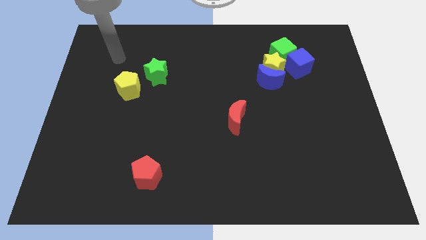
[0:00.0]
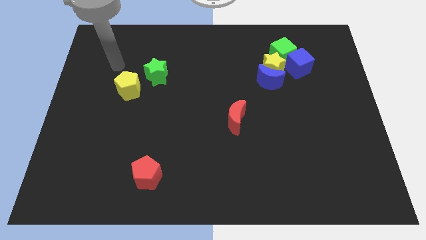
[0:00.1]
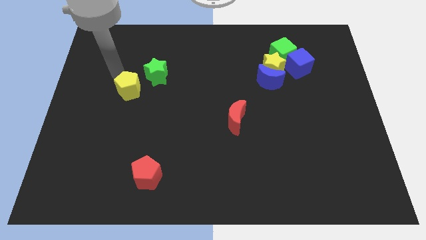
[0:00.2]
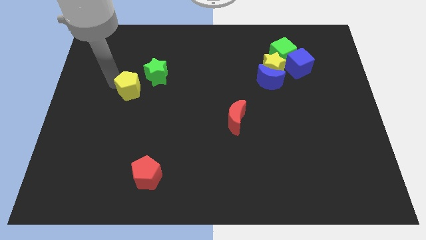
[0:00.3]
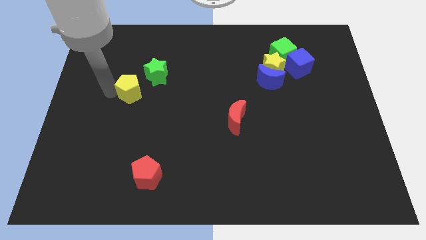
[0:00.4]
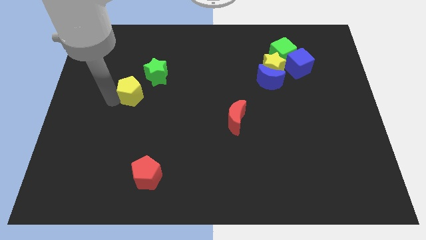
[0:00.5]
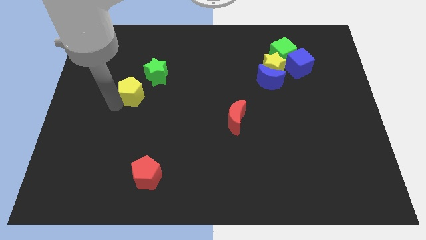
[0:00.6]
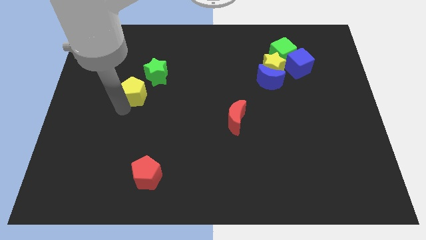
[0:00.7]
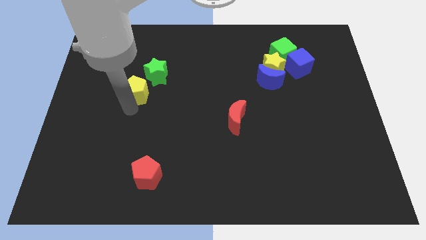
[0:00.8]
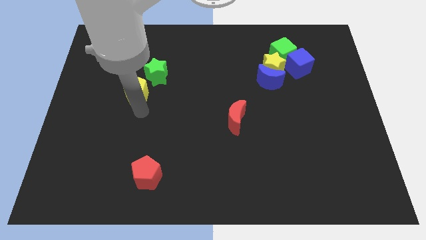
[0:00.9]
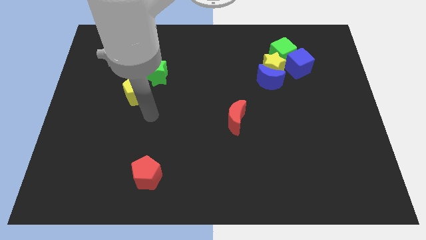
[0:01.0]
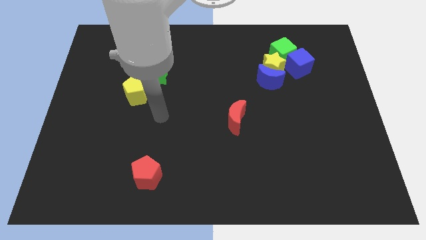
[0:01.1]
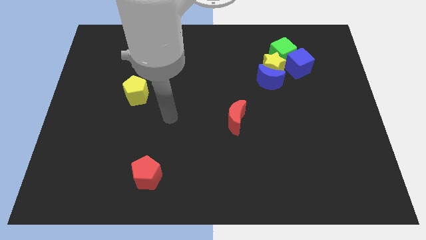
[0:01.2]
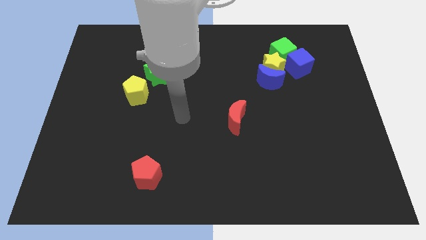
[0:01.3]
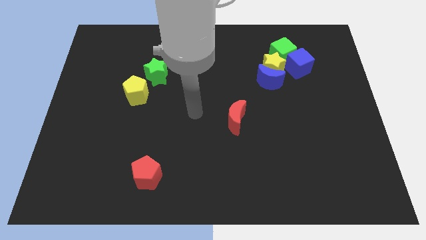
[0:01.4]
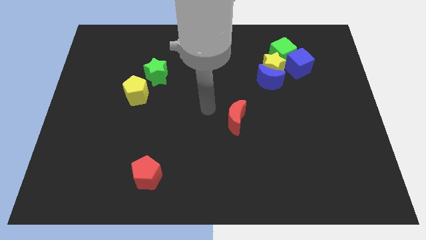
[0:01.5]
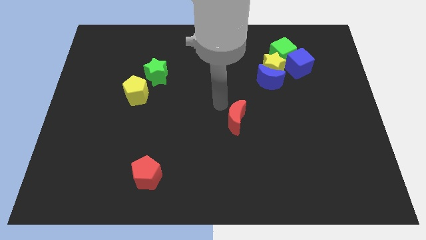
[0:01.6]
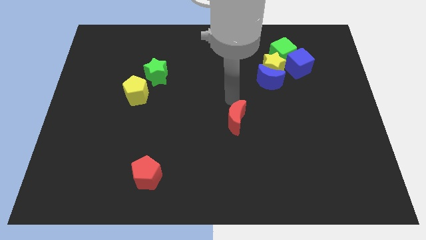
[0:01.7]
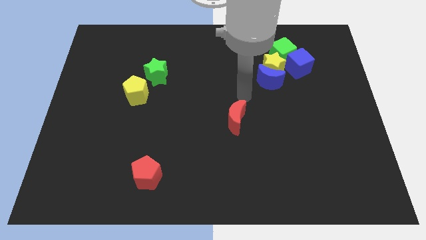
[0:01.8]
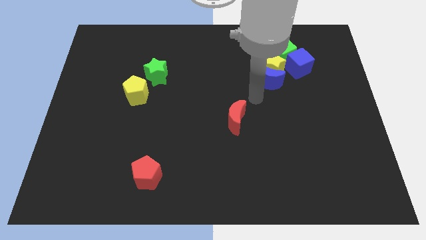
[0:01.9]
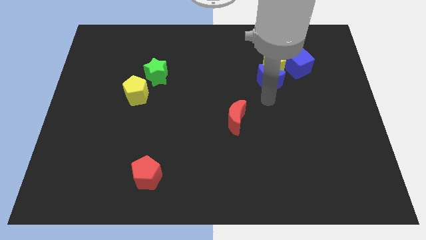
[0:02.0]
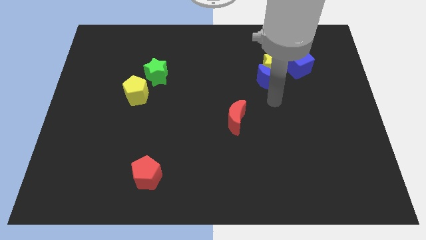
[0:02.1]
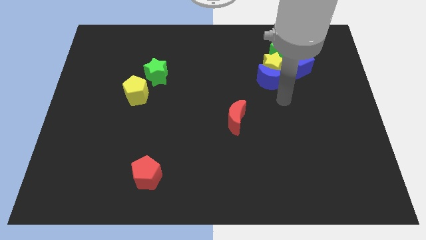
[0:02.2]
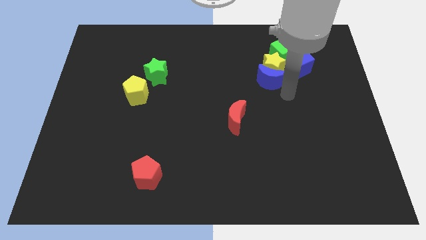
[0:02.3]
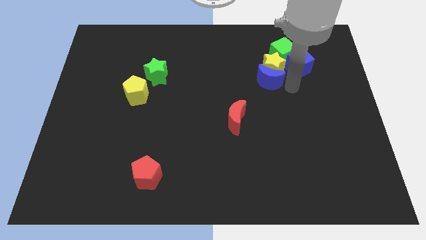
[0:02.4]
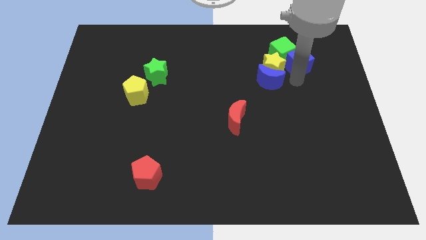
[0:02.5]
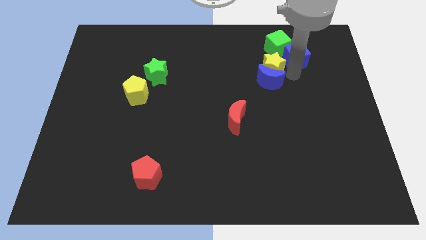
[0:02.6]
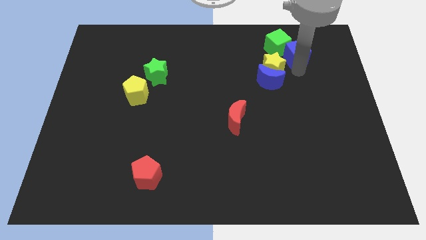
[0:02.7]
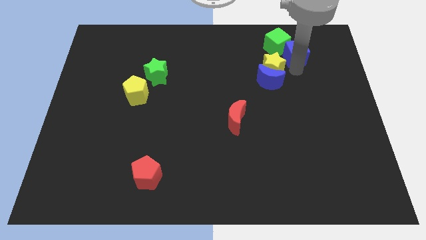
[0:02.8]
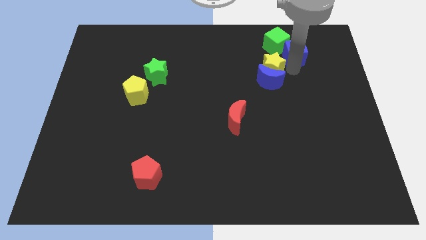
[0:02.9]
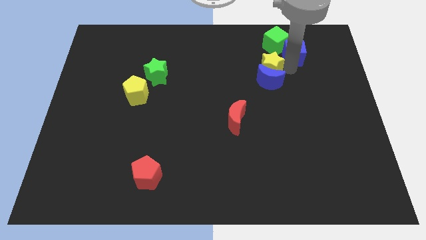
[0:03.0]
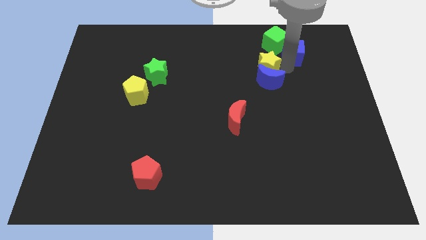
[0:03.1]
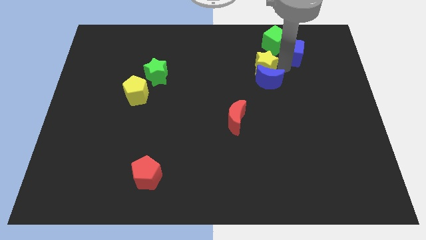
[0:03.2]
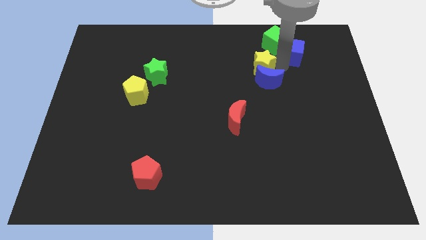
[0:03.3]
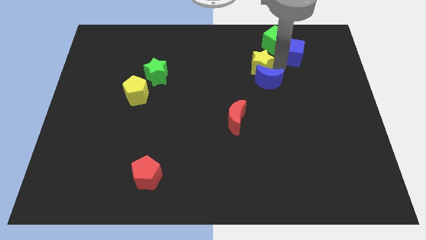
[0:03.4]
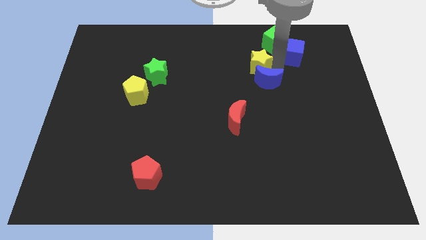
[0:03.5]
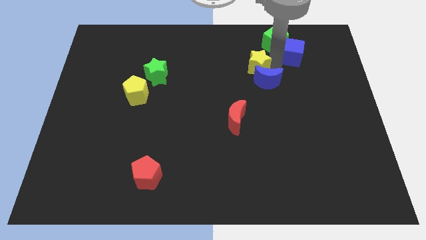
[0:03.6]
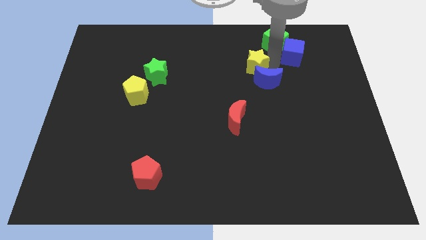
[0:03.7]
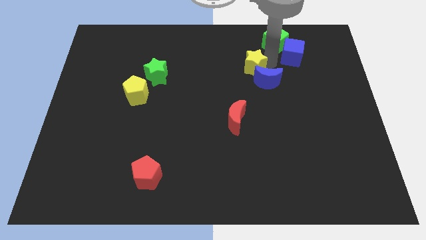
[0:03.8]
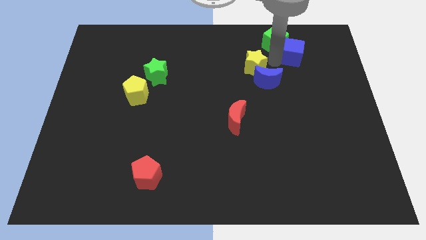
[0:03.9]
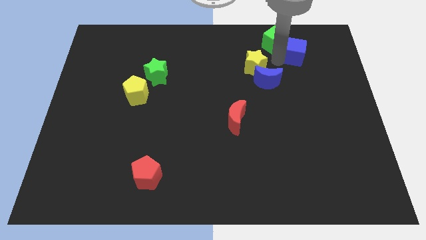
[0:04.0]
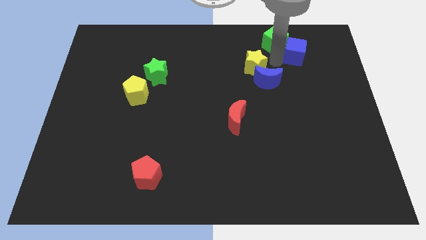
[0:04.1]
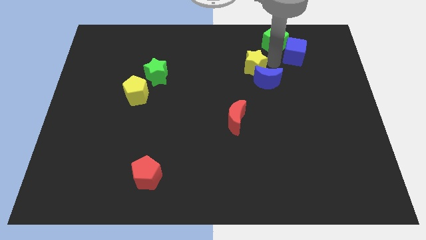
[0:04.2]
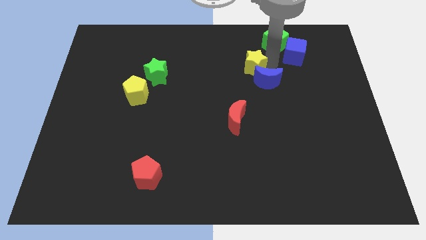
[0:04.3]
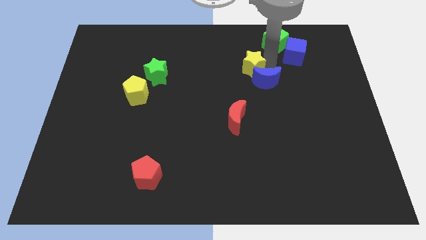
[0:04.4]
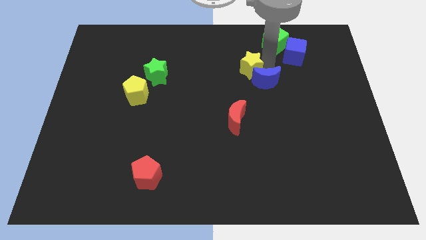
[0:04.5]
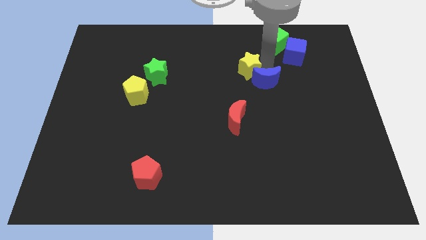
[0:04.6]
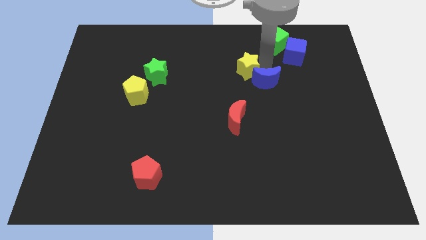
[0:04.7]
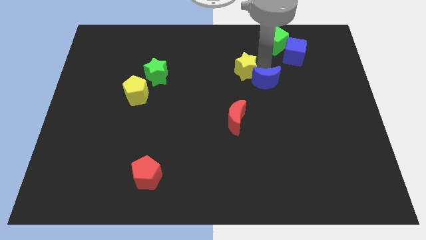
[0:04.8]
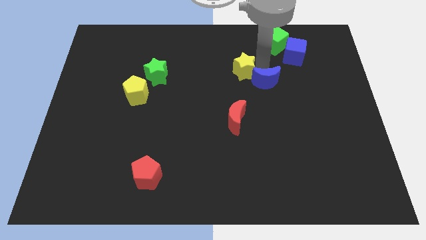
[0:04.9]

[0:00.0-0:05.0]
move the yellow star away from the group of blocks

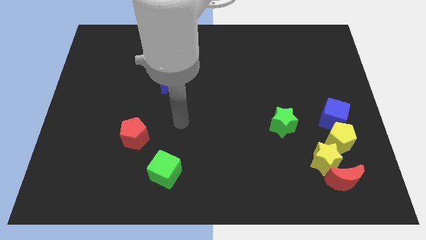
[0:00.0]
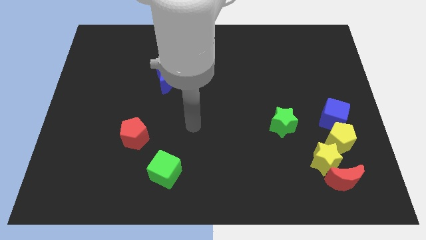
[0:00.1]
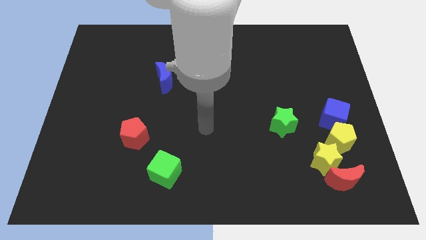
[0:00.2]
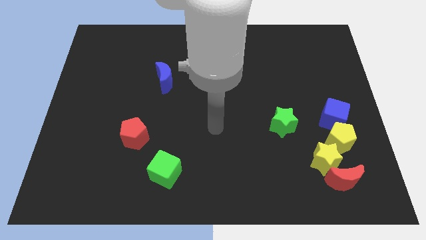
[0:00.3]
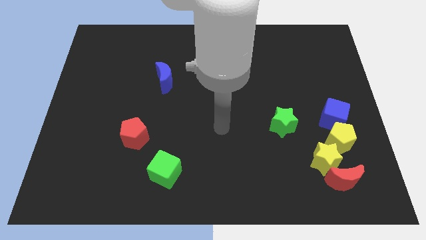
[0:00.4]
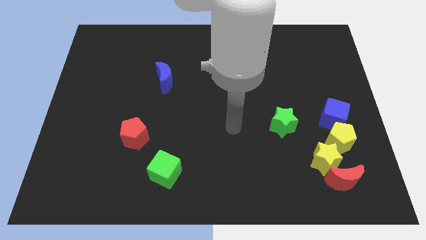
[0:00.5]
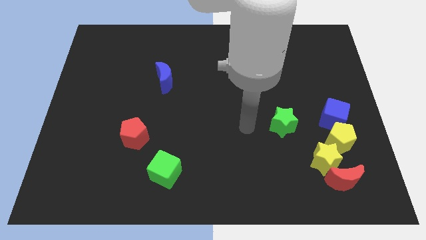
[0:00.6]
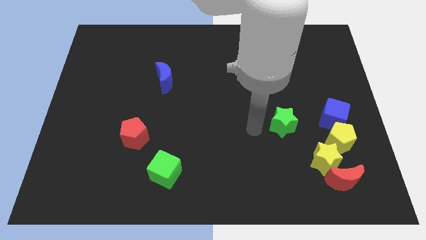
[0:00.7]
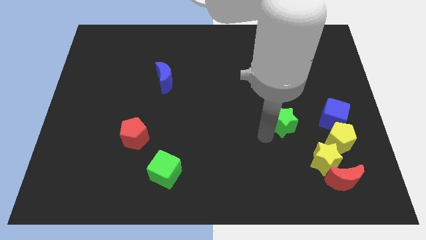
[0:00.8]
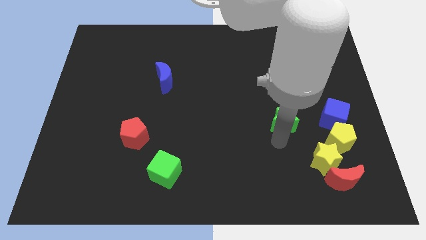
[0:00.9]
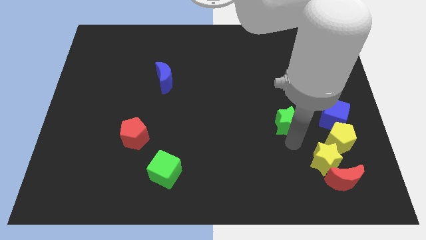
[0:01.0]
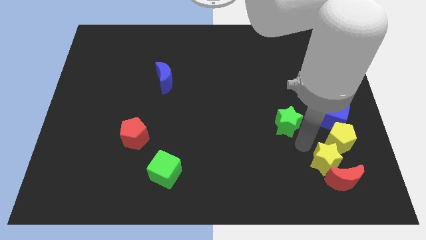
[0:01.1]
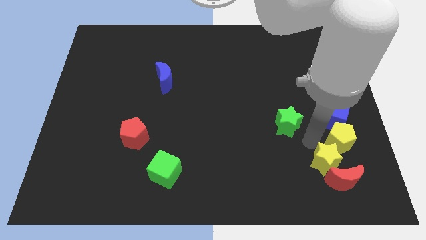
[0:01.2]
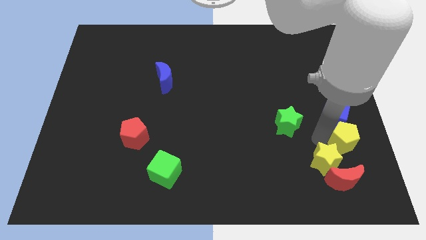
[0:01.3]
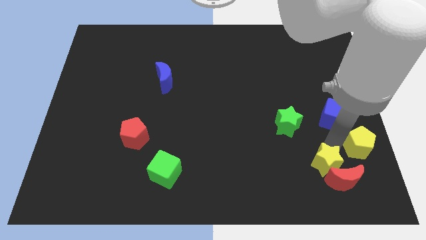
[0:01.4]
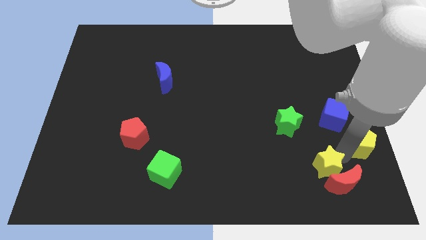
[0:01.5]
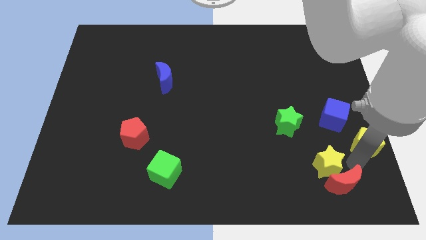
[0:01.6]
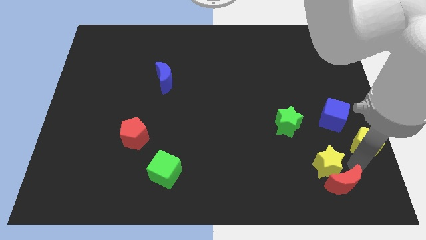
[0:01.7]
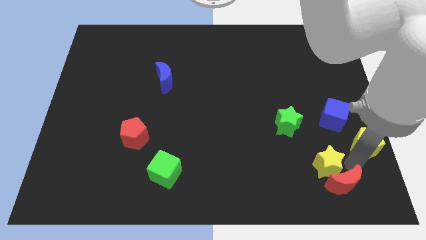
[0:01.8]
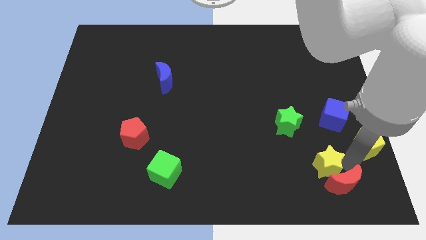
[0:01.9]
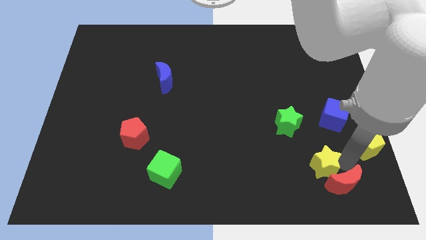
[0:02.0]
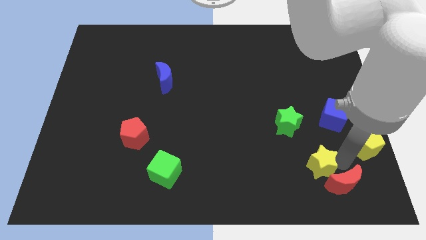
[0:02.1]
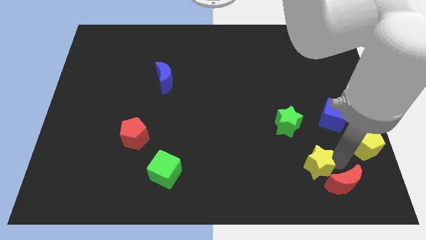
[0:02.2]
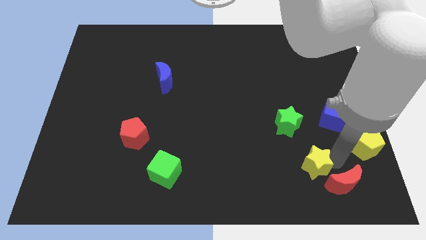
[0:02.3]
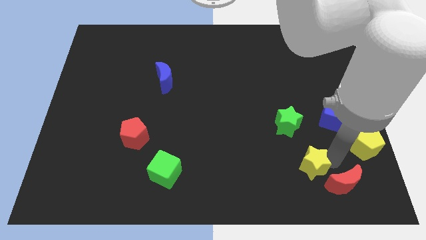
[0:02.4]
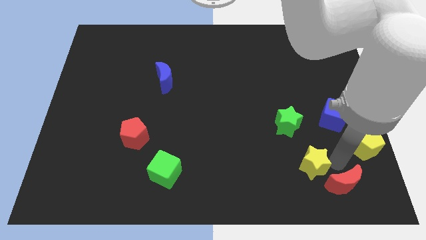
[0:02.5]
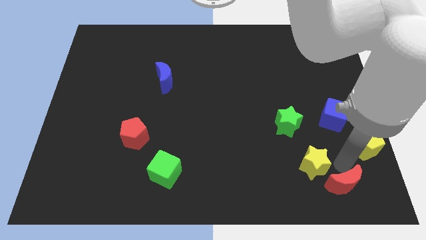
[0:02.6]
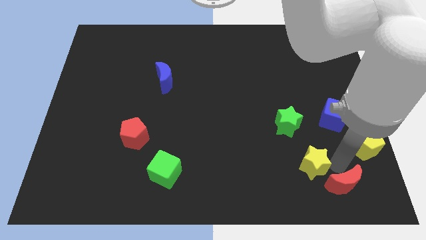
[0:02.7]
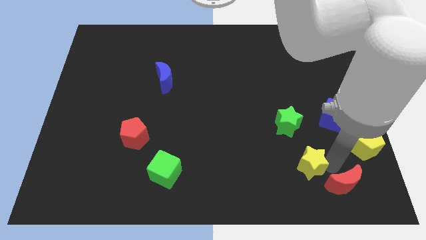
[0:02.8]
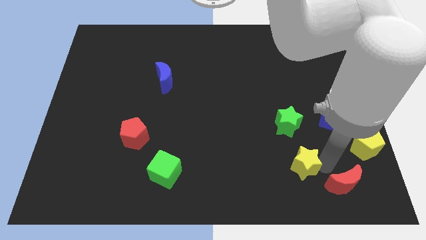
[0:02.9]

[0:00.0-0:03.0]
separate the yellow star from the red moon and yellow pentagon

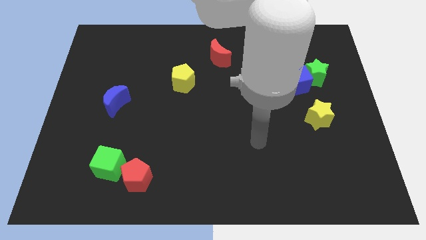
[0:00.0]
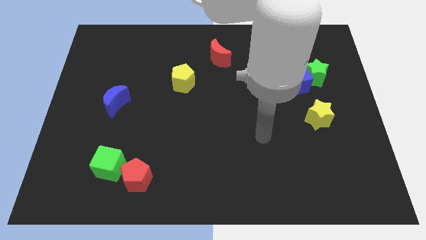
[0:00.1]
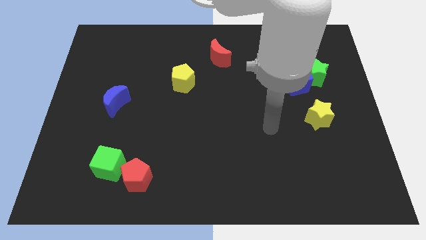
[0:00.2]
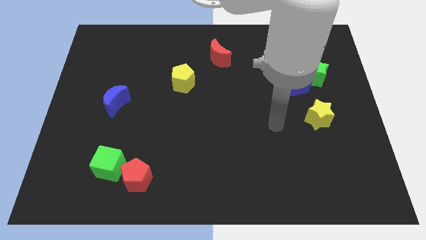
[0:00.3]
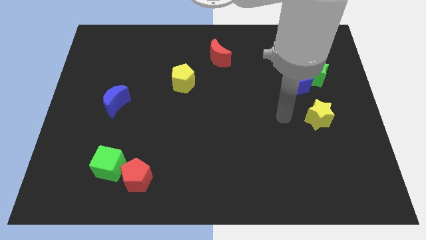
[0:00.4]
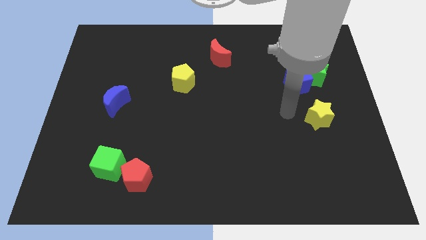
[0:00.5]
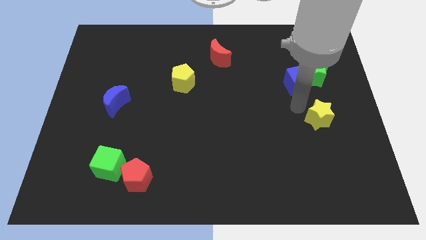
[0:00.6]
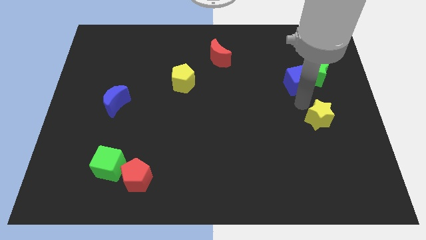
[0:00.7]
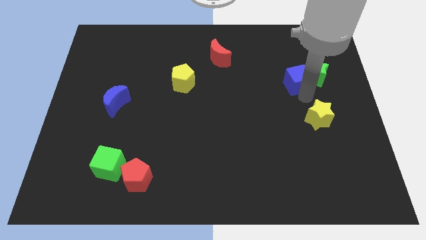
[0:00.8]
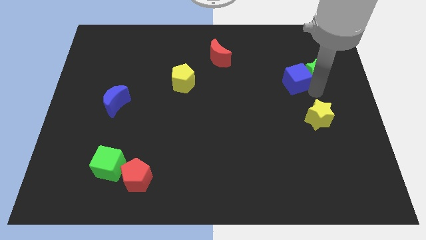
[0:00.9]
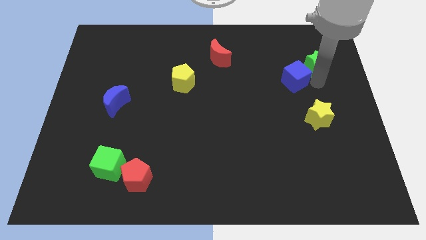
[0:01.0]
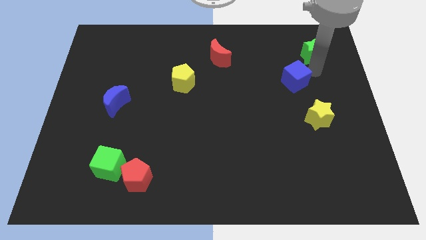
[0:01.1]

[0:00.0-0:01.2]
pull the blue cube apart from the green star

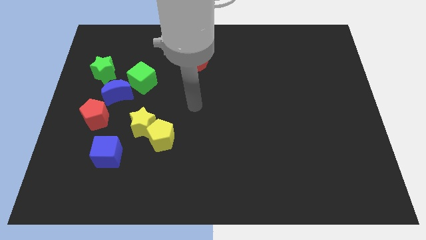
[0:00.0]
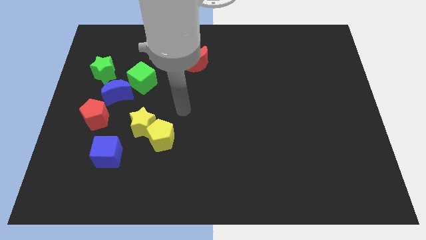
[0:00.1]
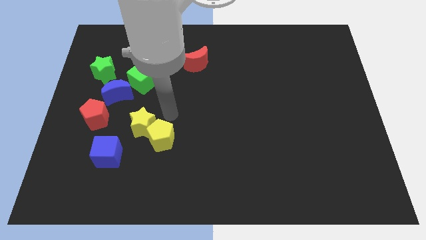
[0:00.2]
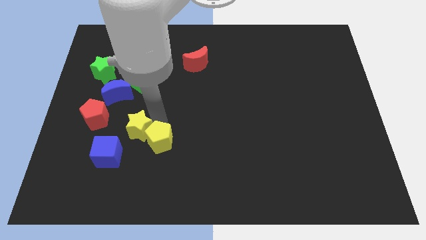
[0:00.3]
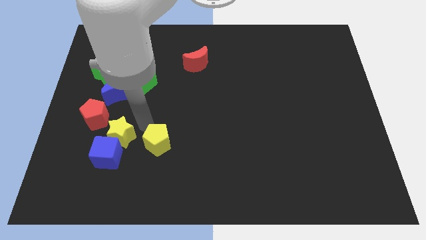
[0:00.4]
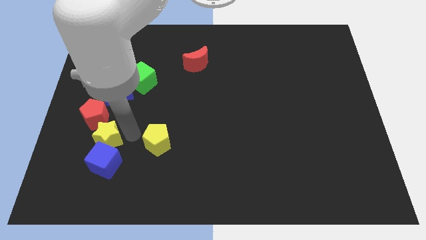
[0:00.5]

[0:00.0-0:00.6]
move the yellow pentagon away from the yellow star
